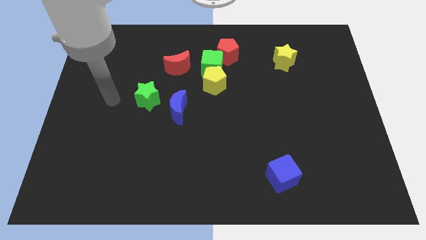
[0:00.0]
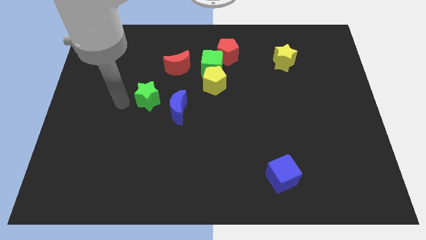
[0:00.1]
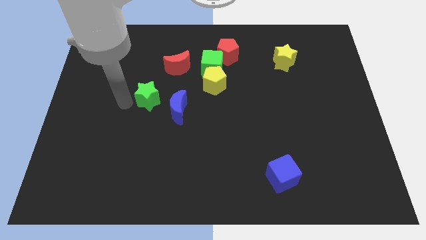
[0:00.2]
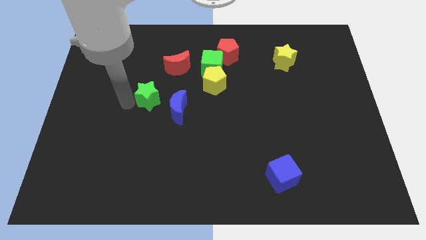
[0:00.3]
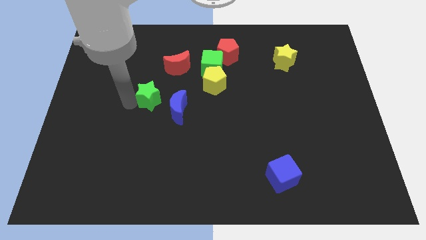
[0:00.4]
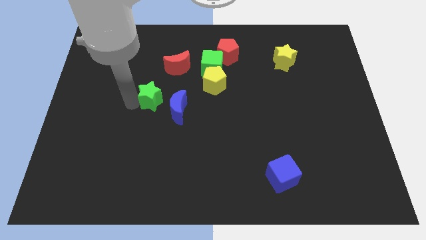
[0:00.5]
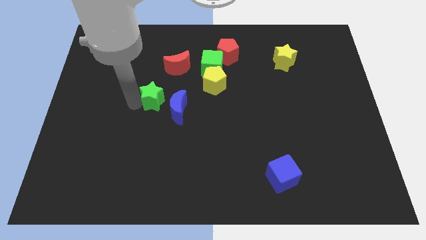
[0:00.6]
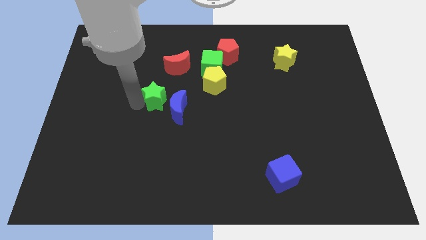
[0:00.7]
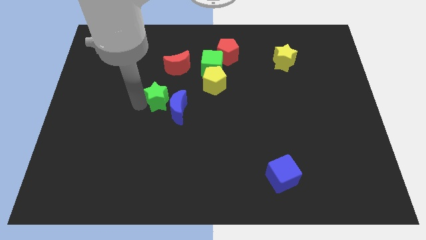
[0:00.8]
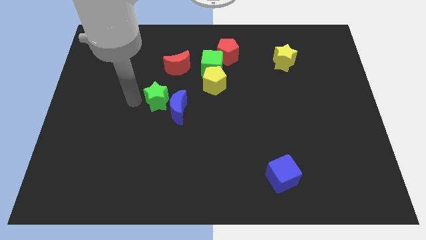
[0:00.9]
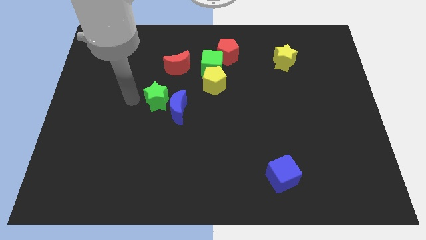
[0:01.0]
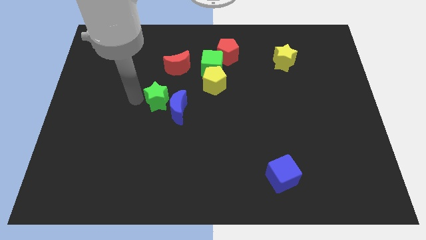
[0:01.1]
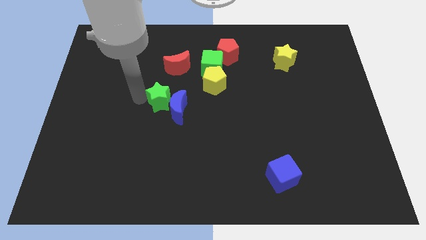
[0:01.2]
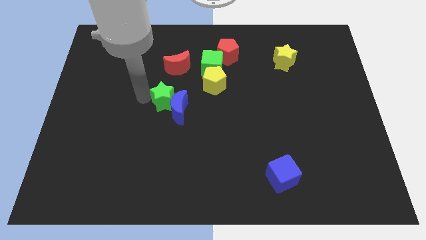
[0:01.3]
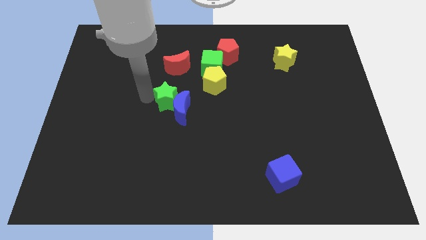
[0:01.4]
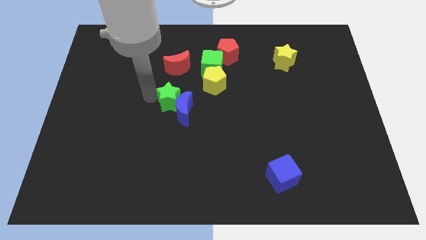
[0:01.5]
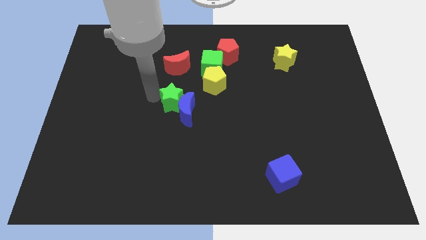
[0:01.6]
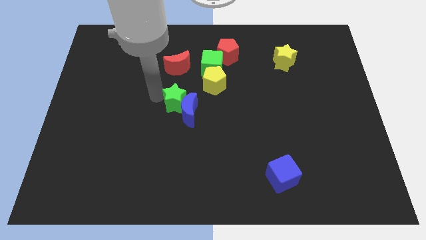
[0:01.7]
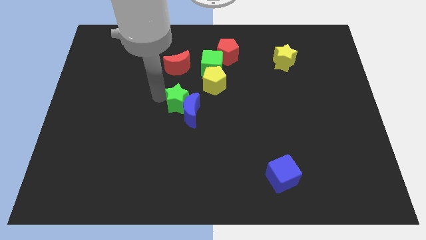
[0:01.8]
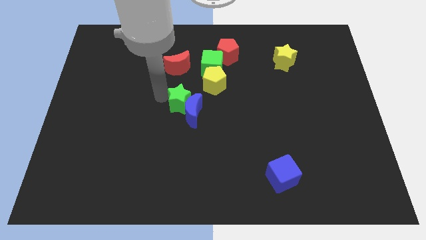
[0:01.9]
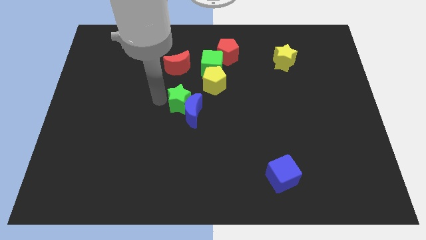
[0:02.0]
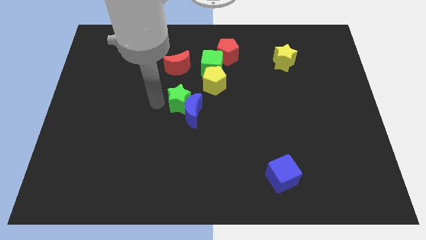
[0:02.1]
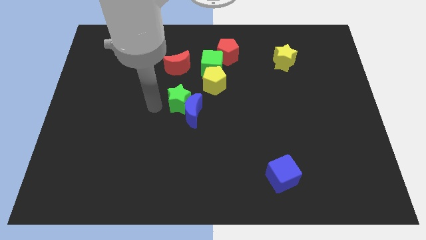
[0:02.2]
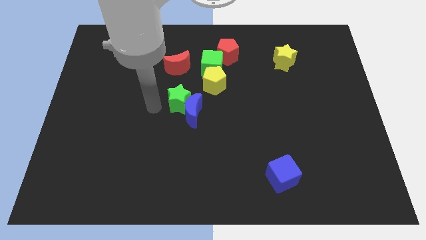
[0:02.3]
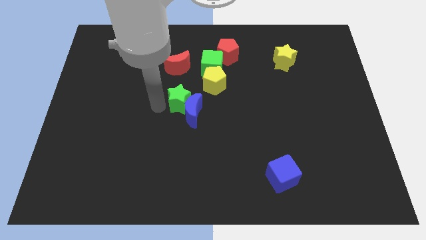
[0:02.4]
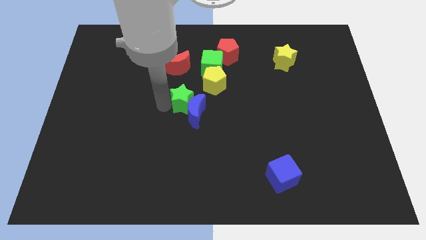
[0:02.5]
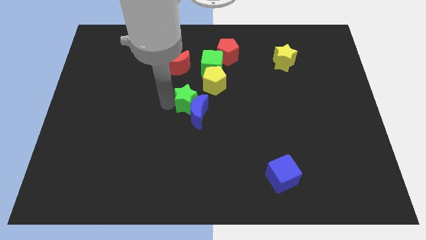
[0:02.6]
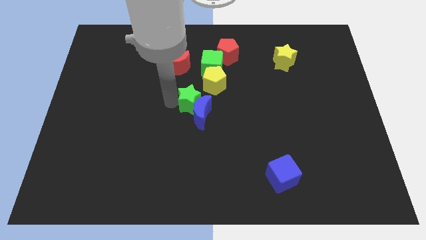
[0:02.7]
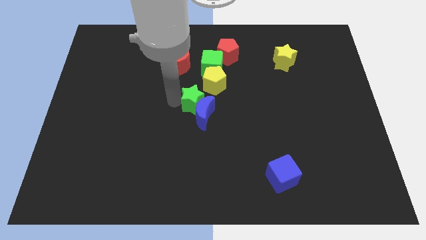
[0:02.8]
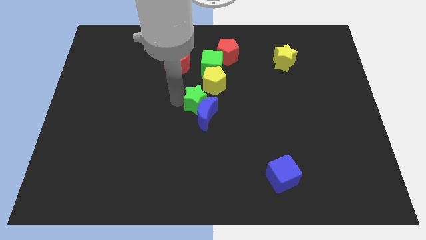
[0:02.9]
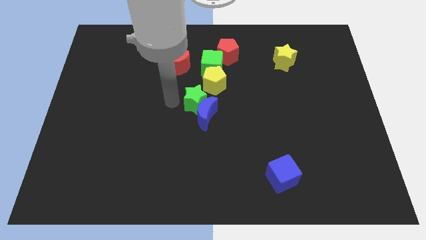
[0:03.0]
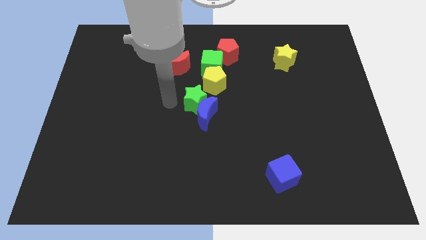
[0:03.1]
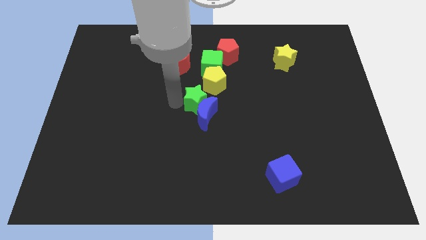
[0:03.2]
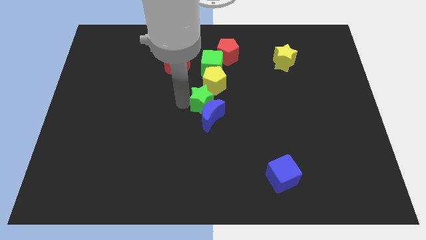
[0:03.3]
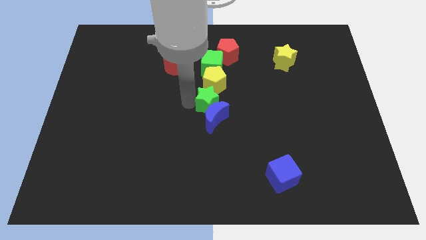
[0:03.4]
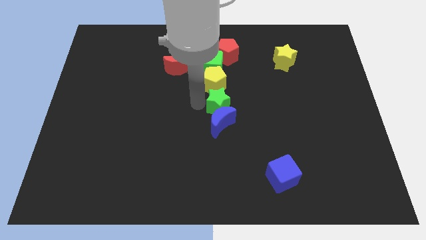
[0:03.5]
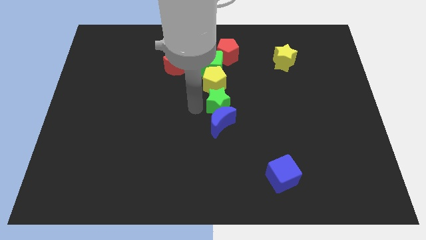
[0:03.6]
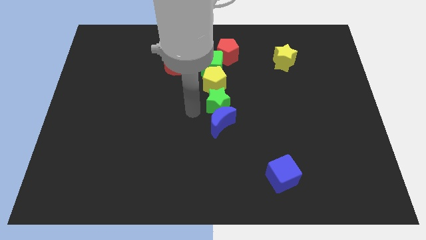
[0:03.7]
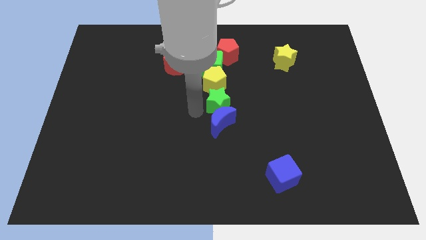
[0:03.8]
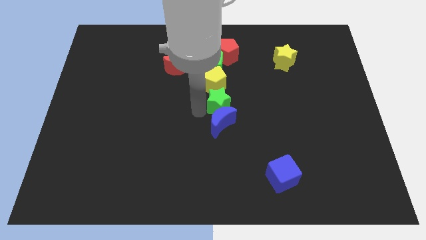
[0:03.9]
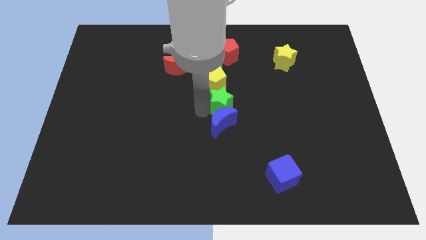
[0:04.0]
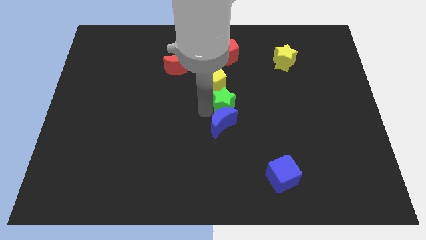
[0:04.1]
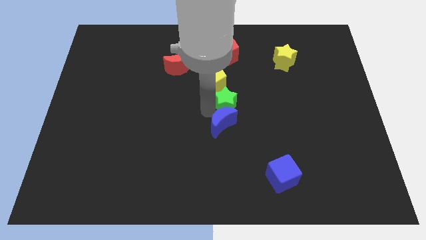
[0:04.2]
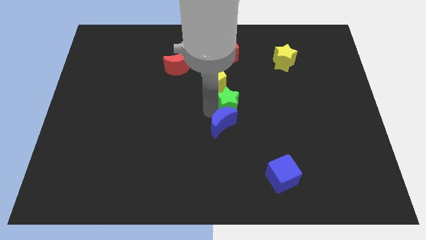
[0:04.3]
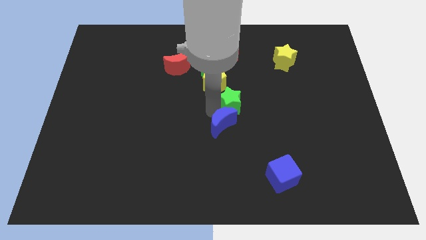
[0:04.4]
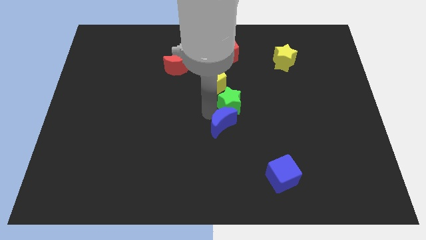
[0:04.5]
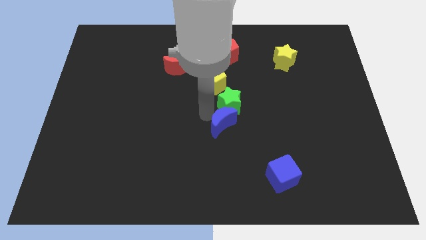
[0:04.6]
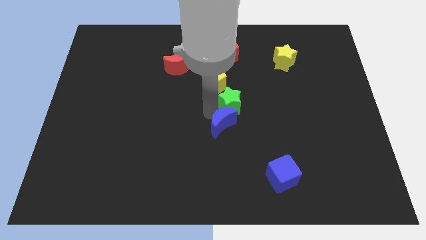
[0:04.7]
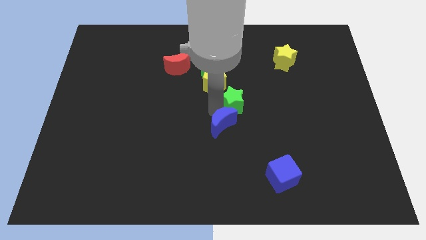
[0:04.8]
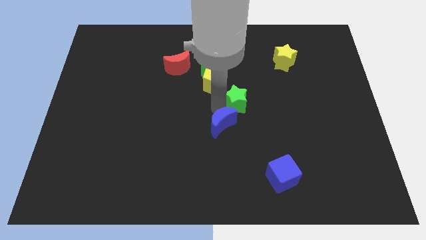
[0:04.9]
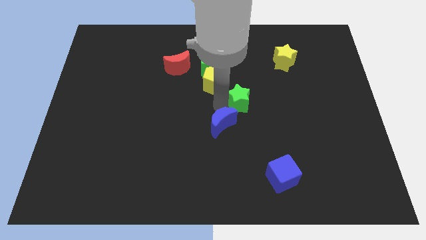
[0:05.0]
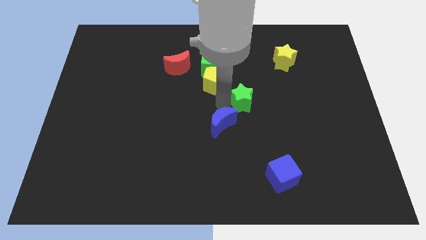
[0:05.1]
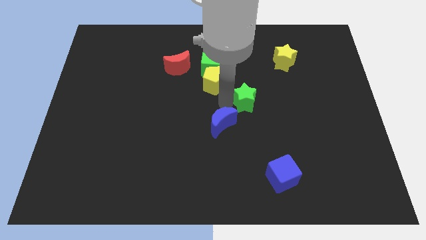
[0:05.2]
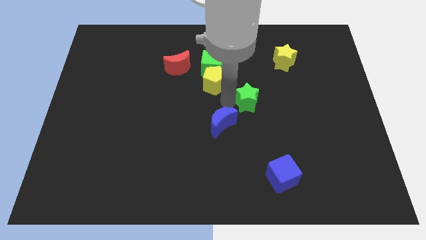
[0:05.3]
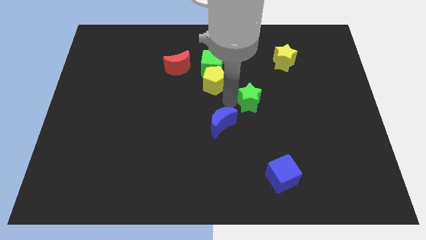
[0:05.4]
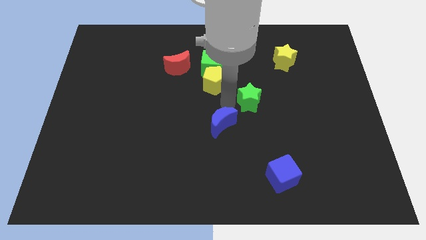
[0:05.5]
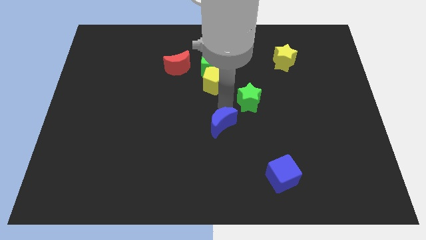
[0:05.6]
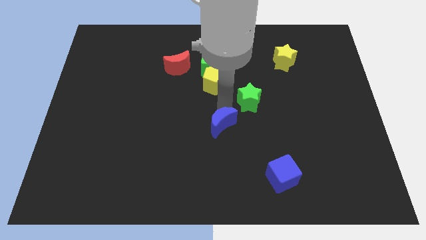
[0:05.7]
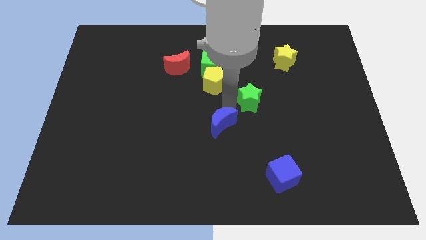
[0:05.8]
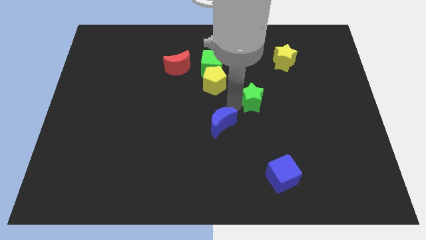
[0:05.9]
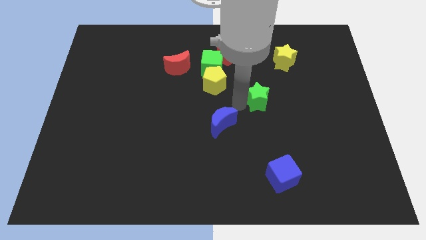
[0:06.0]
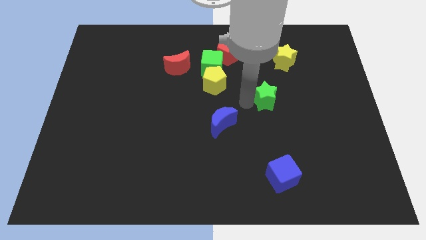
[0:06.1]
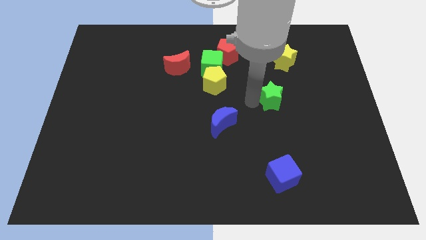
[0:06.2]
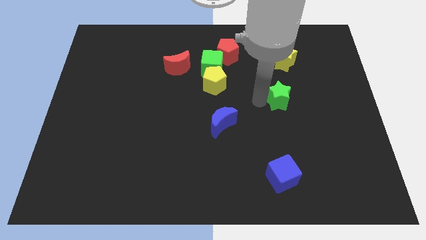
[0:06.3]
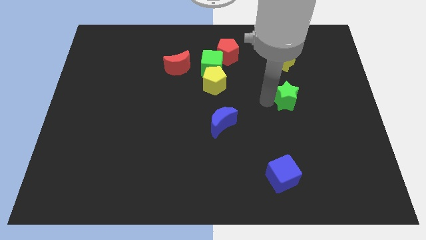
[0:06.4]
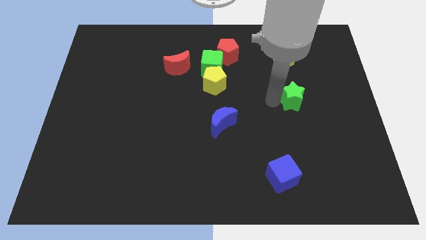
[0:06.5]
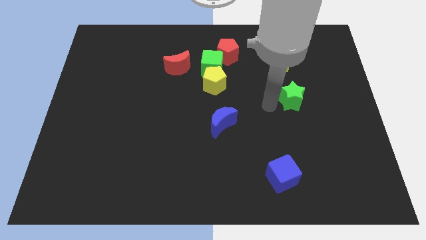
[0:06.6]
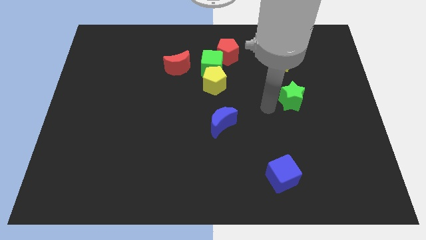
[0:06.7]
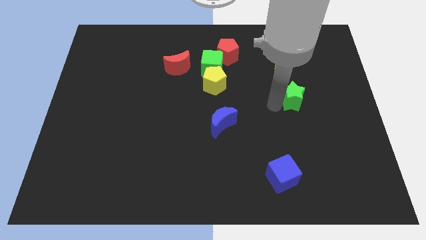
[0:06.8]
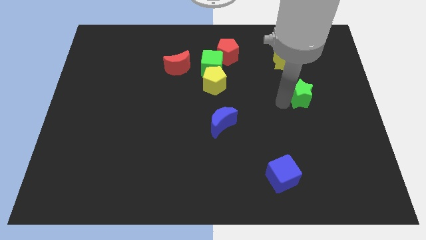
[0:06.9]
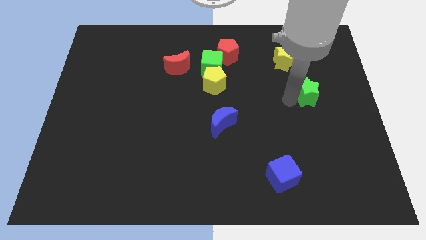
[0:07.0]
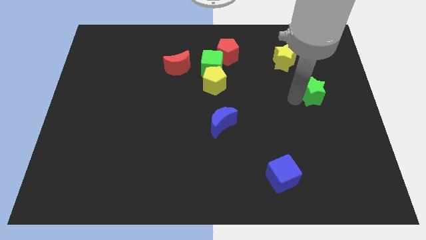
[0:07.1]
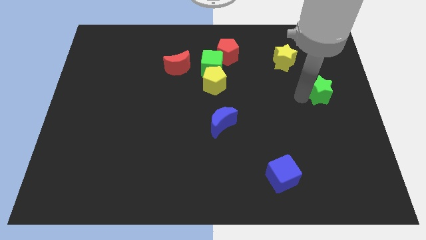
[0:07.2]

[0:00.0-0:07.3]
slide the green star to the right side of the board
